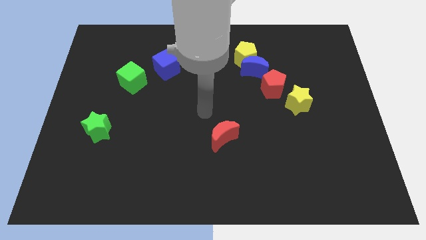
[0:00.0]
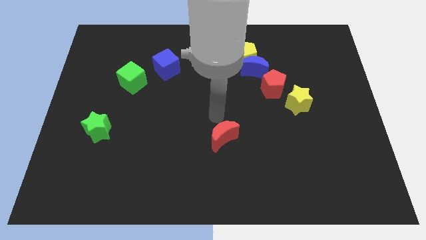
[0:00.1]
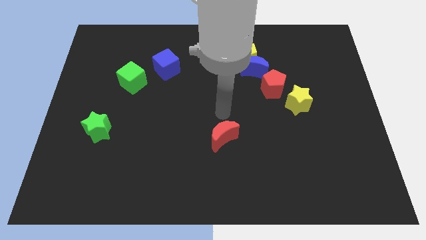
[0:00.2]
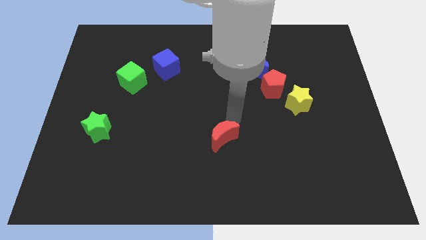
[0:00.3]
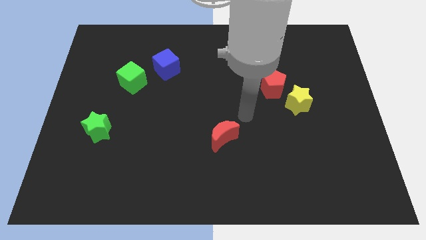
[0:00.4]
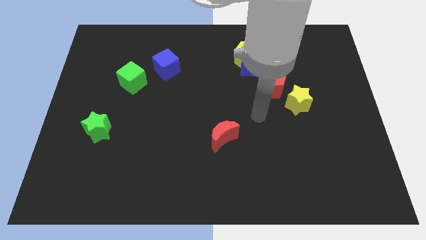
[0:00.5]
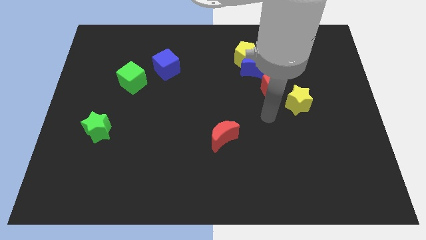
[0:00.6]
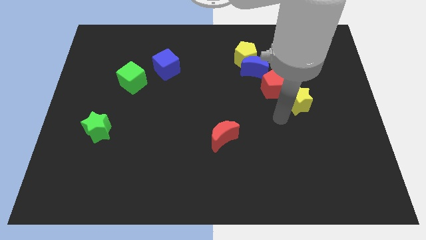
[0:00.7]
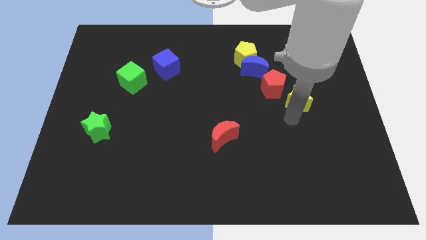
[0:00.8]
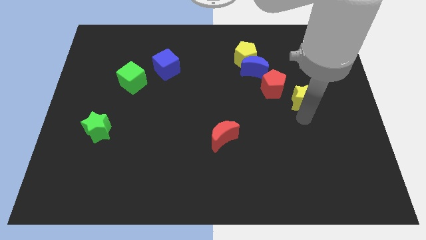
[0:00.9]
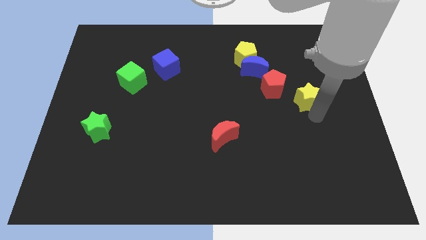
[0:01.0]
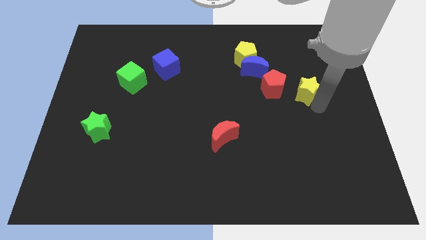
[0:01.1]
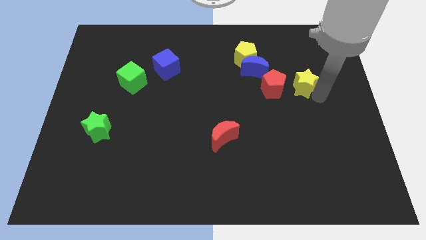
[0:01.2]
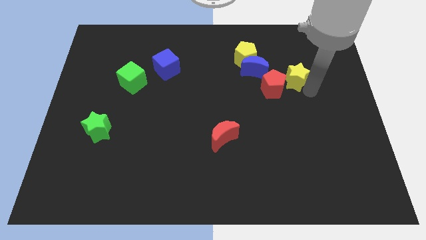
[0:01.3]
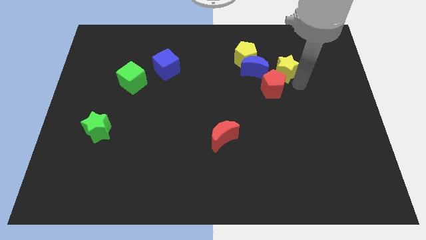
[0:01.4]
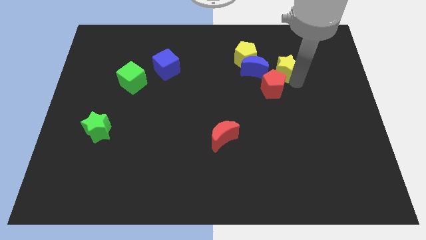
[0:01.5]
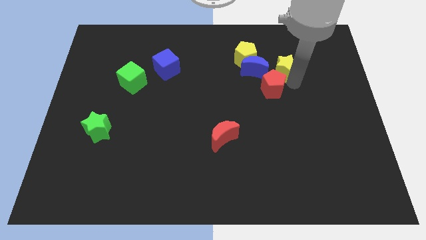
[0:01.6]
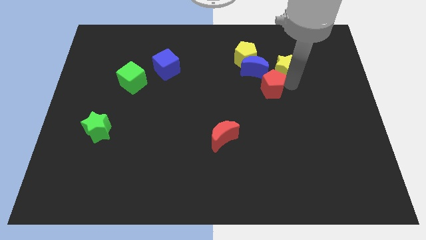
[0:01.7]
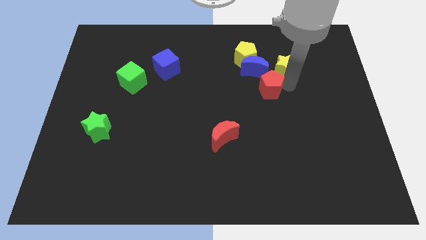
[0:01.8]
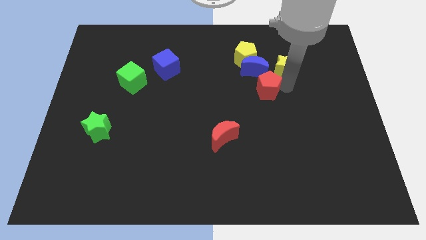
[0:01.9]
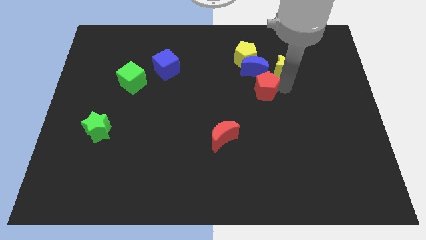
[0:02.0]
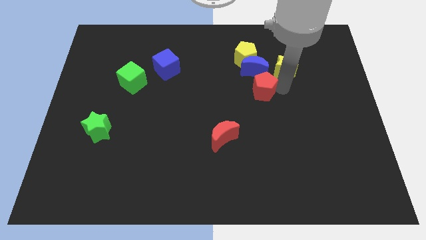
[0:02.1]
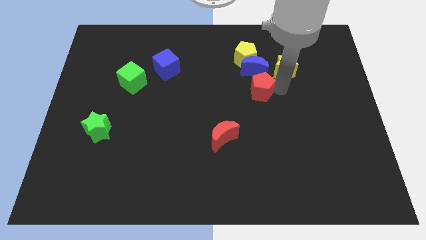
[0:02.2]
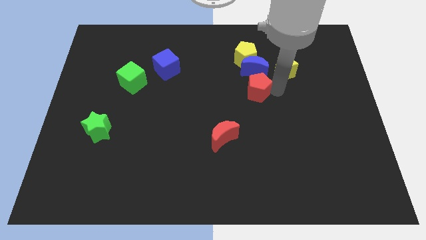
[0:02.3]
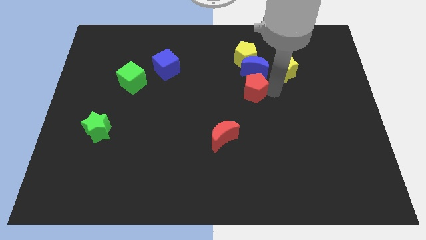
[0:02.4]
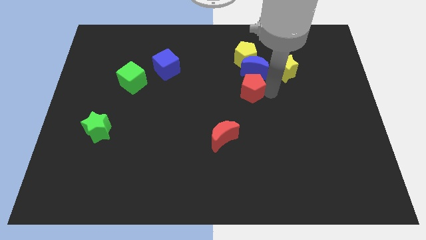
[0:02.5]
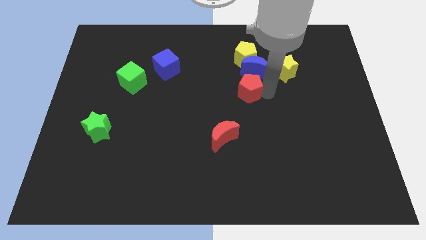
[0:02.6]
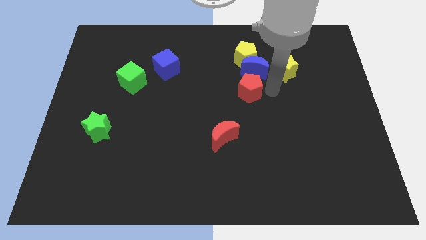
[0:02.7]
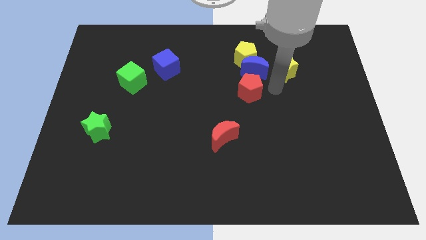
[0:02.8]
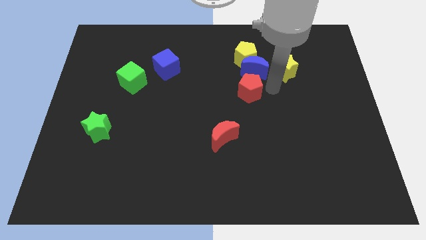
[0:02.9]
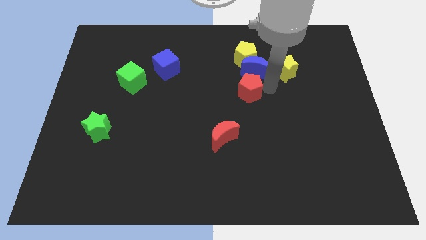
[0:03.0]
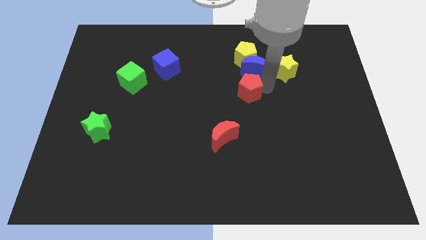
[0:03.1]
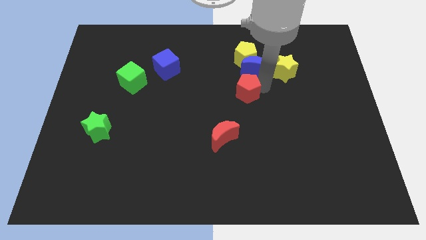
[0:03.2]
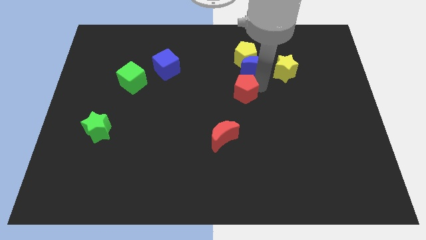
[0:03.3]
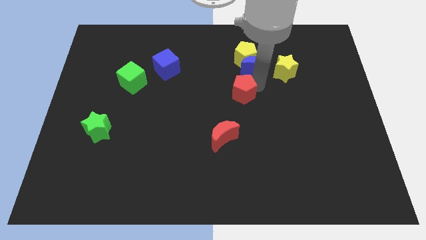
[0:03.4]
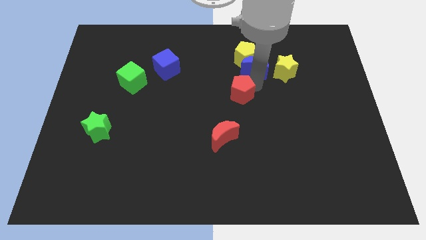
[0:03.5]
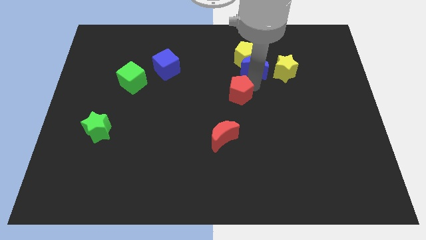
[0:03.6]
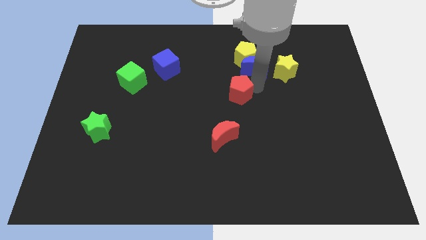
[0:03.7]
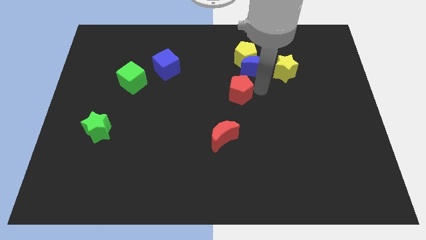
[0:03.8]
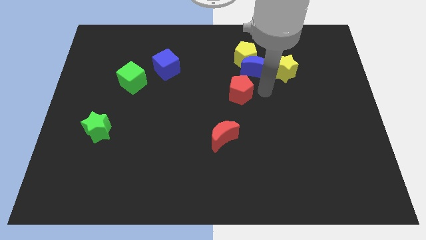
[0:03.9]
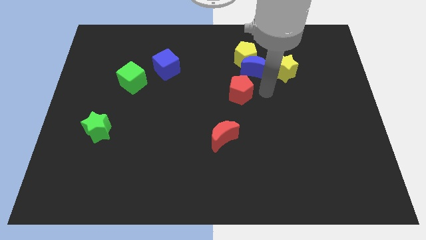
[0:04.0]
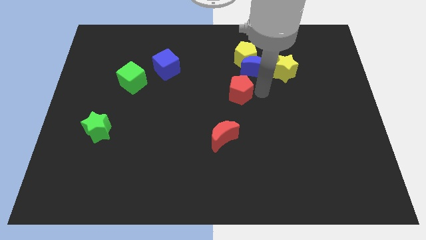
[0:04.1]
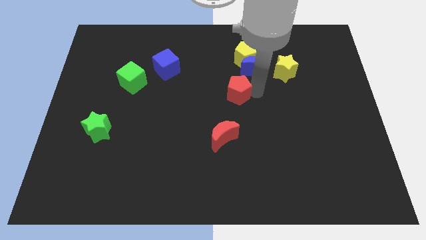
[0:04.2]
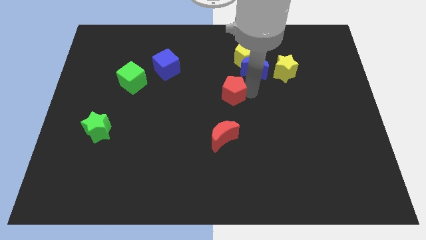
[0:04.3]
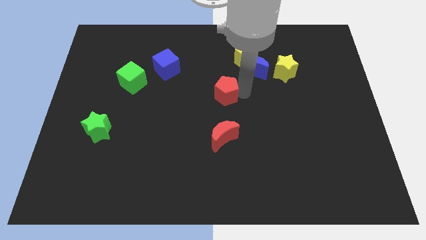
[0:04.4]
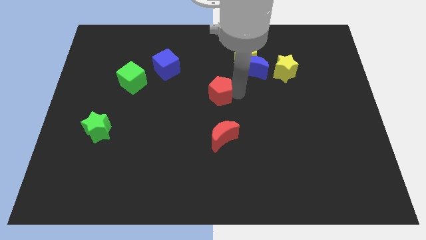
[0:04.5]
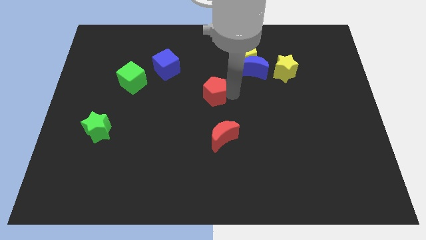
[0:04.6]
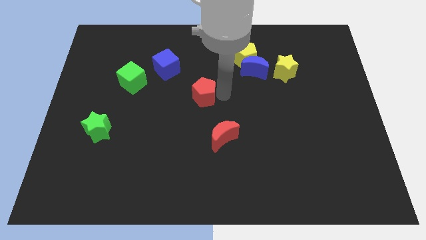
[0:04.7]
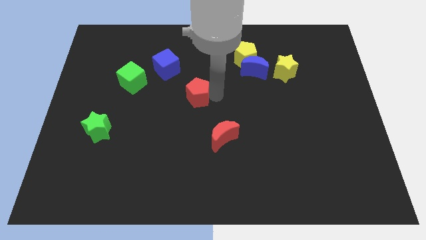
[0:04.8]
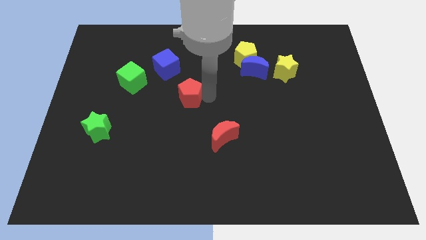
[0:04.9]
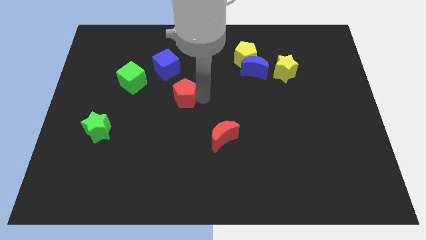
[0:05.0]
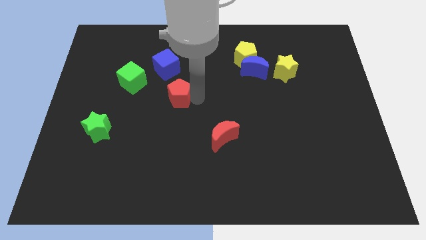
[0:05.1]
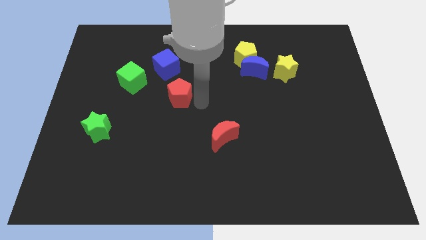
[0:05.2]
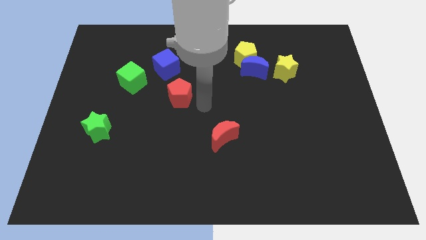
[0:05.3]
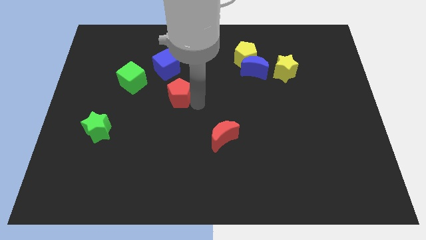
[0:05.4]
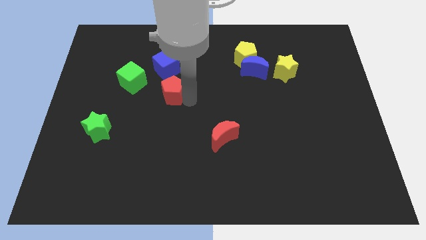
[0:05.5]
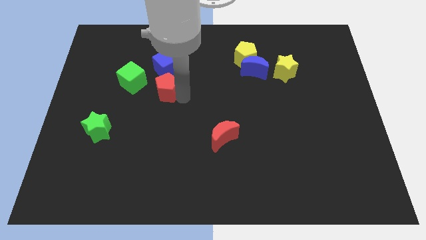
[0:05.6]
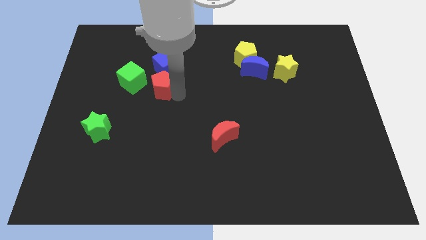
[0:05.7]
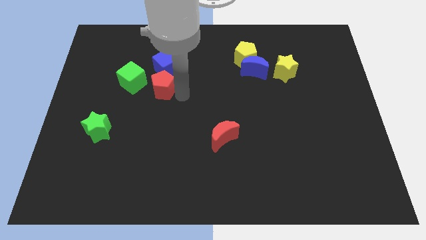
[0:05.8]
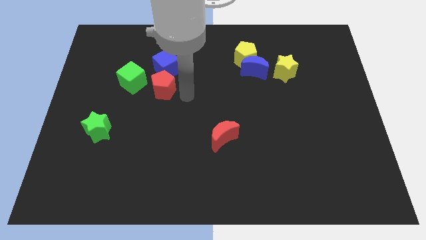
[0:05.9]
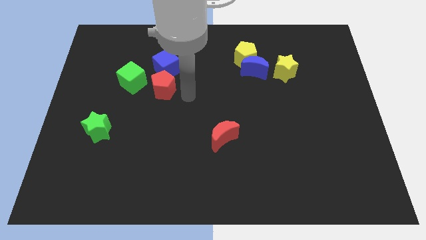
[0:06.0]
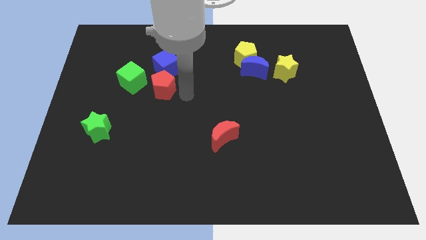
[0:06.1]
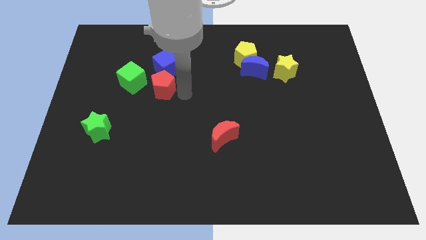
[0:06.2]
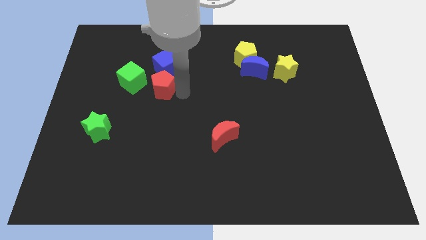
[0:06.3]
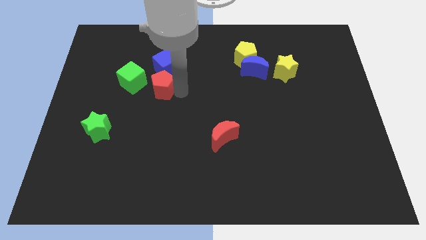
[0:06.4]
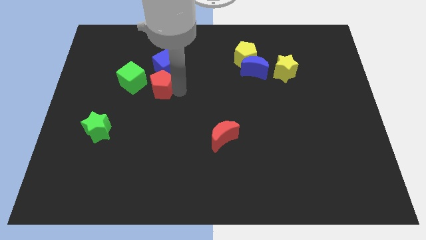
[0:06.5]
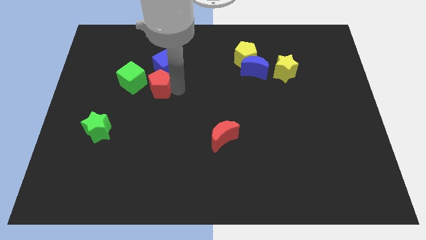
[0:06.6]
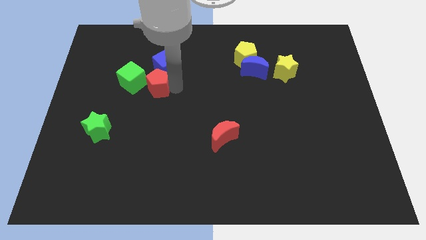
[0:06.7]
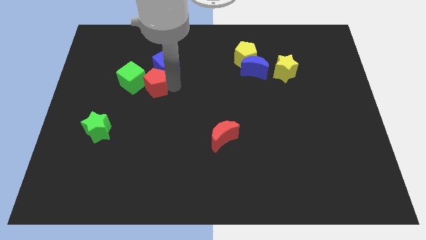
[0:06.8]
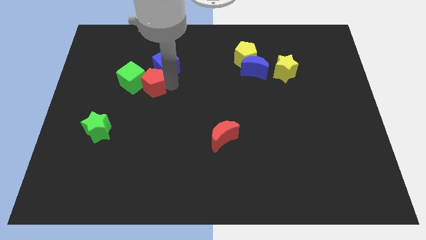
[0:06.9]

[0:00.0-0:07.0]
put the red pentagon close to the green cube
